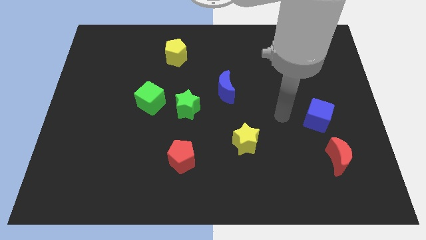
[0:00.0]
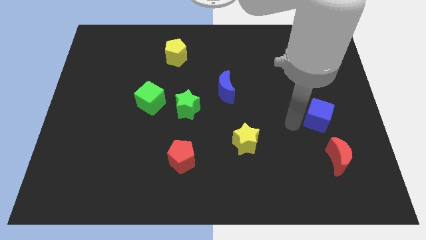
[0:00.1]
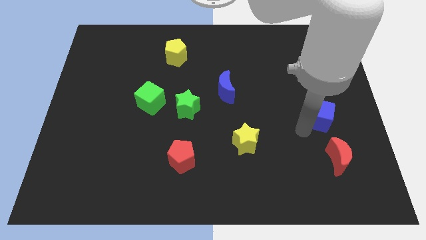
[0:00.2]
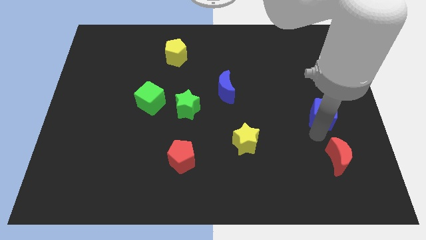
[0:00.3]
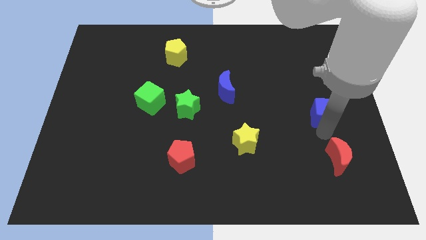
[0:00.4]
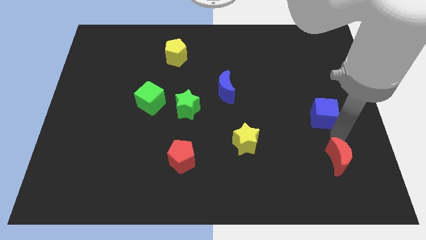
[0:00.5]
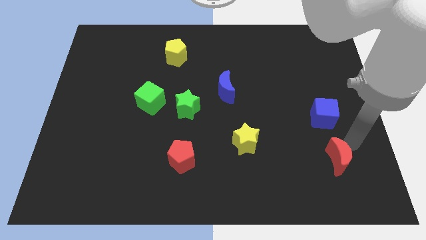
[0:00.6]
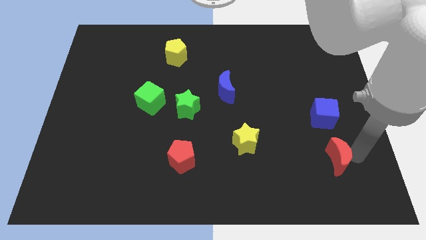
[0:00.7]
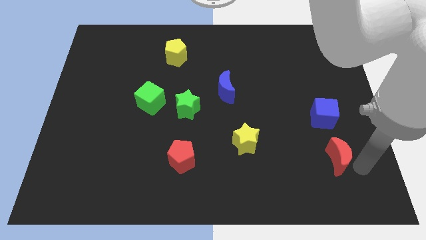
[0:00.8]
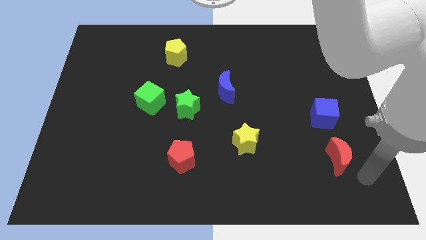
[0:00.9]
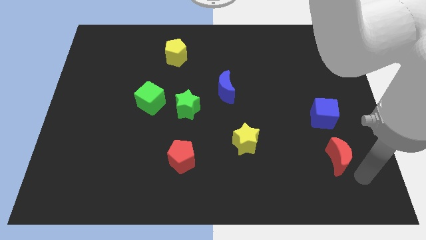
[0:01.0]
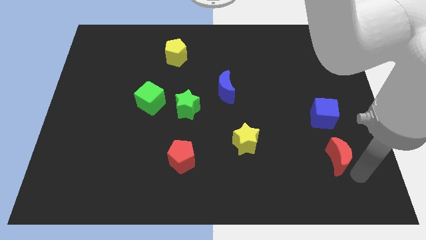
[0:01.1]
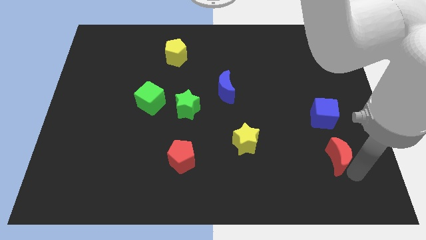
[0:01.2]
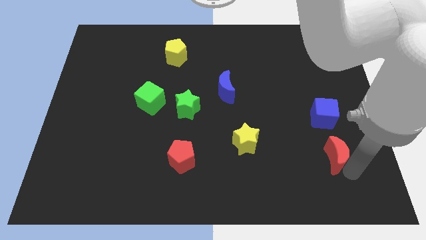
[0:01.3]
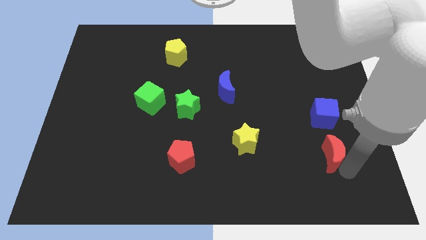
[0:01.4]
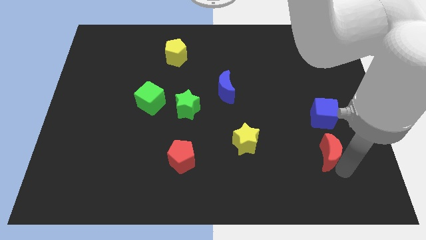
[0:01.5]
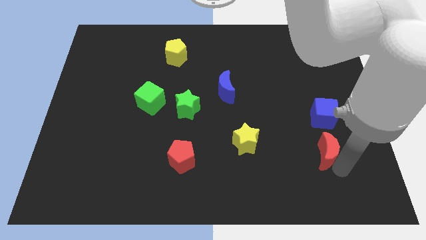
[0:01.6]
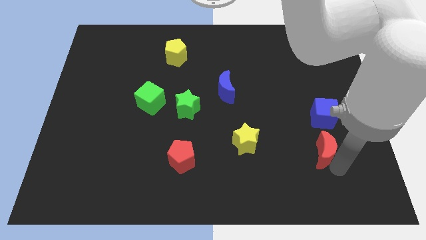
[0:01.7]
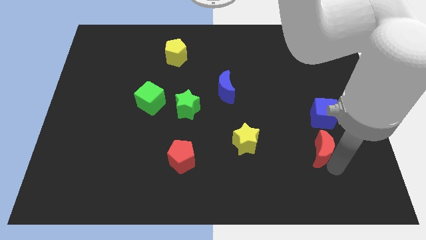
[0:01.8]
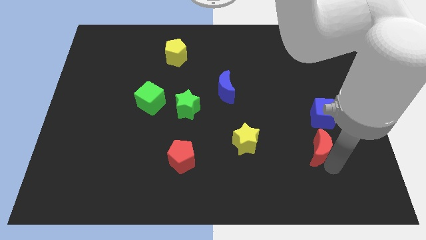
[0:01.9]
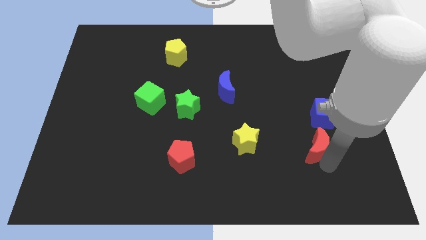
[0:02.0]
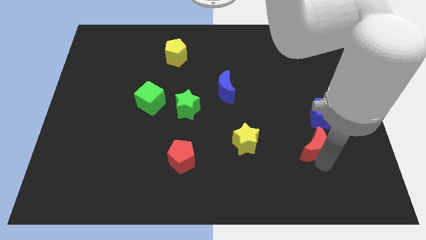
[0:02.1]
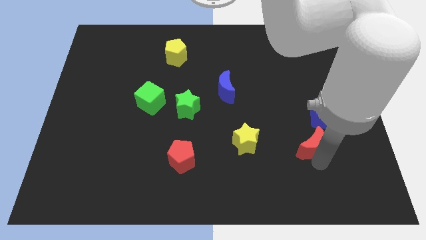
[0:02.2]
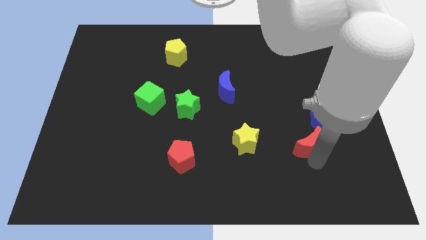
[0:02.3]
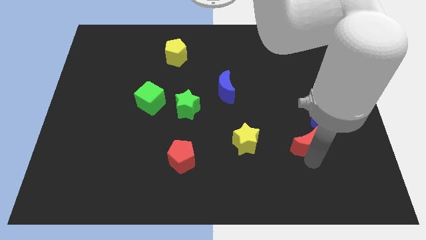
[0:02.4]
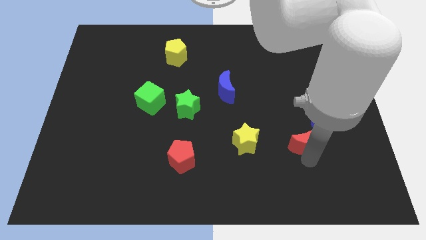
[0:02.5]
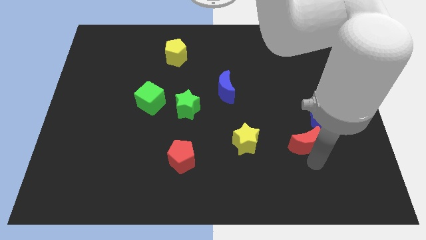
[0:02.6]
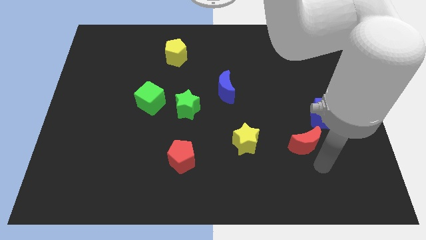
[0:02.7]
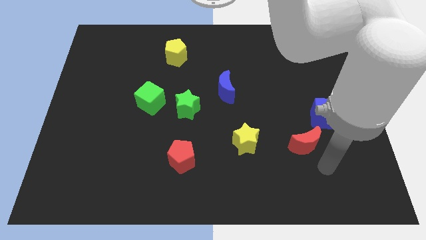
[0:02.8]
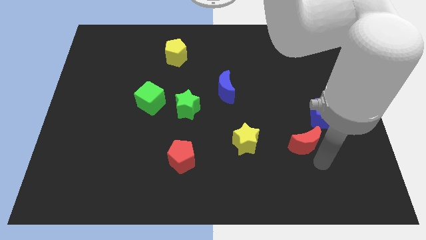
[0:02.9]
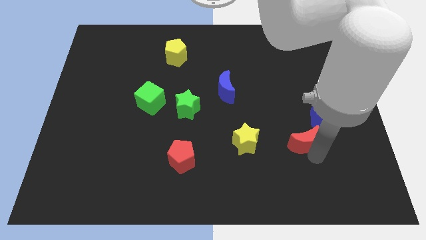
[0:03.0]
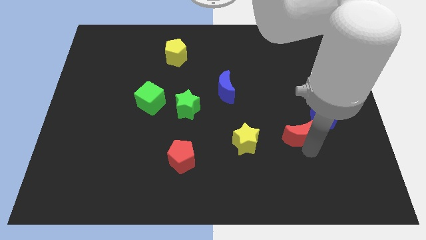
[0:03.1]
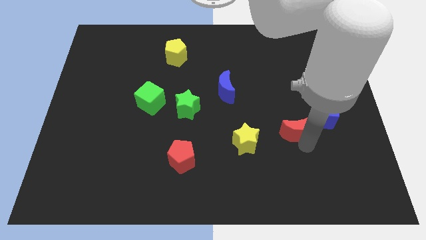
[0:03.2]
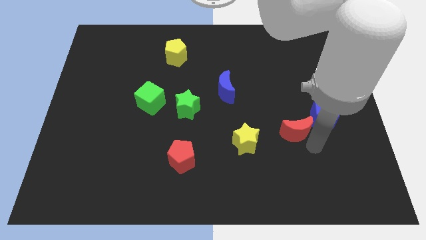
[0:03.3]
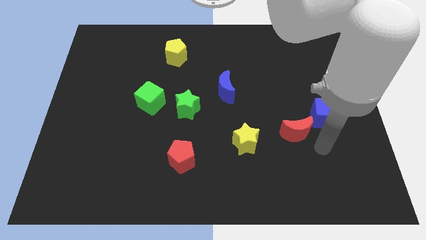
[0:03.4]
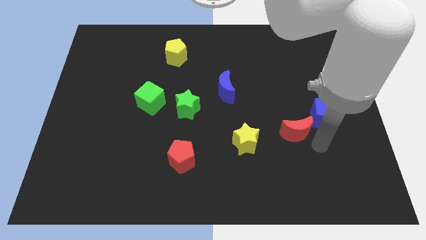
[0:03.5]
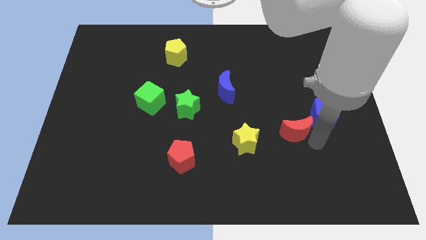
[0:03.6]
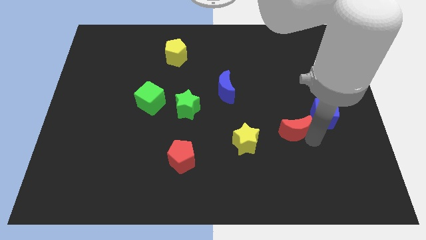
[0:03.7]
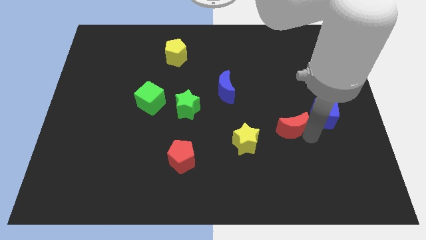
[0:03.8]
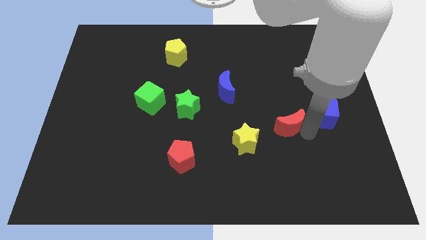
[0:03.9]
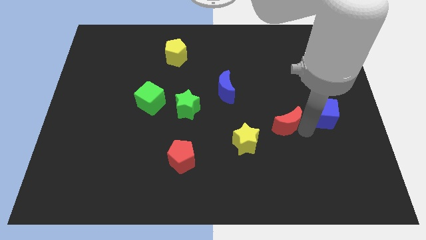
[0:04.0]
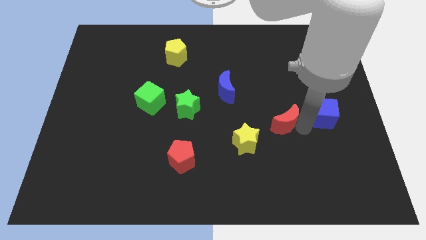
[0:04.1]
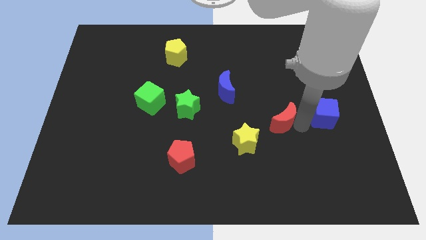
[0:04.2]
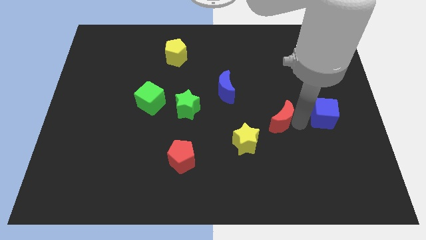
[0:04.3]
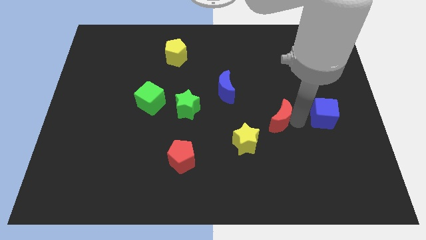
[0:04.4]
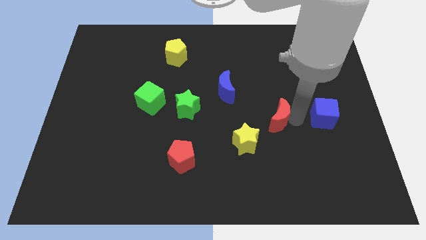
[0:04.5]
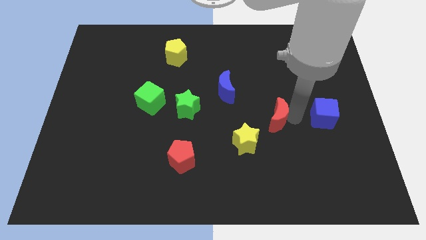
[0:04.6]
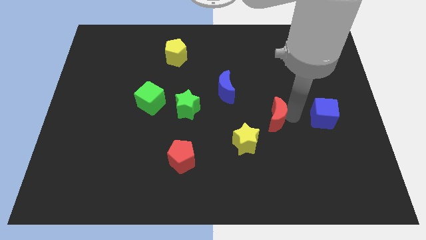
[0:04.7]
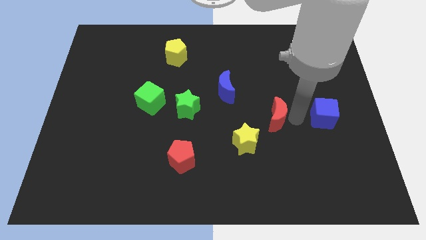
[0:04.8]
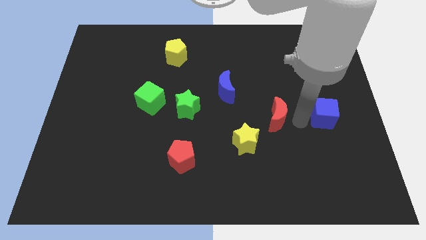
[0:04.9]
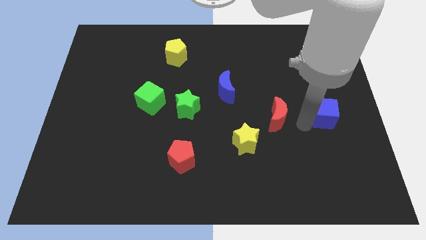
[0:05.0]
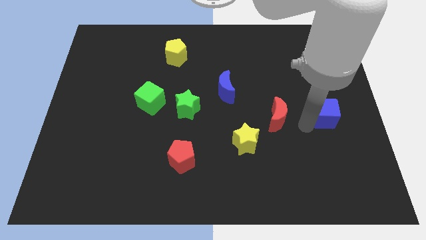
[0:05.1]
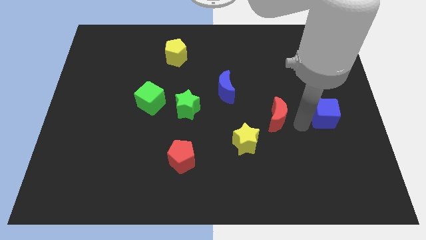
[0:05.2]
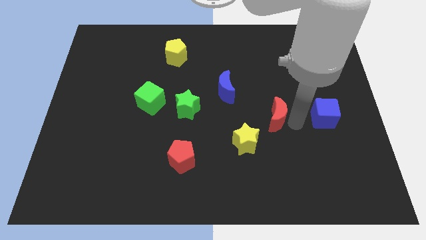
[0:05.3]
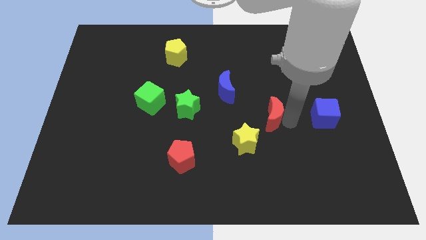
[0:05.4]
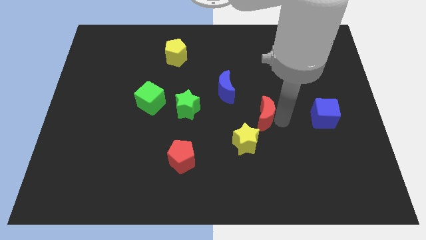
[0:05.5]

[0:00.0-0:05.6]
push the red moon above the yellow star
